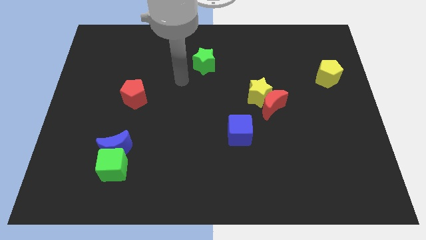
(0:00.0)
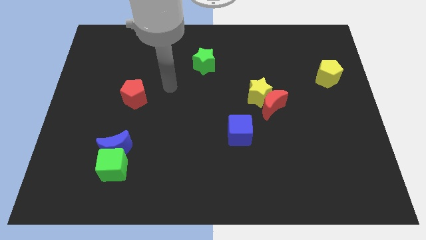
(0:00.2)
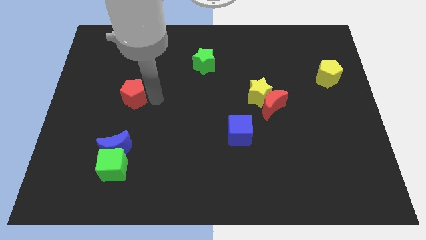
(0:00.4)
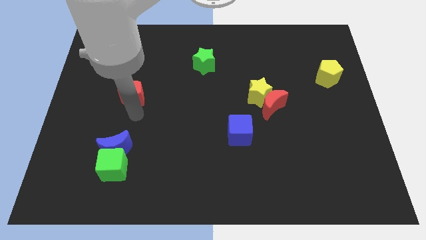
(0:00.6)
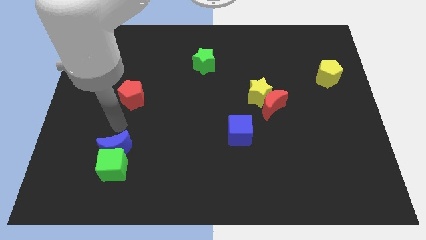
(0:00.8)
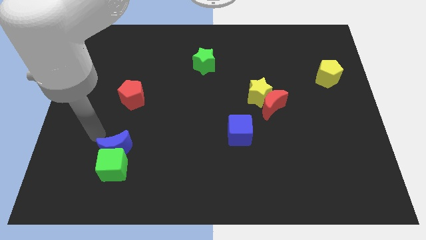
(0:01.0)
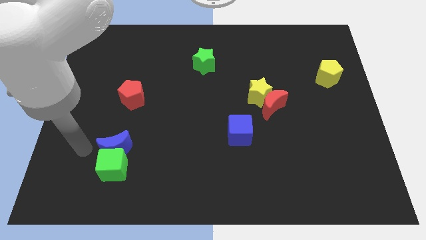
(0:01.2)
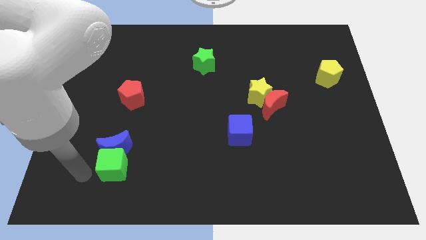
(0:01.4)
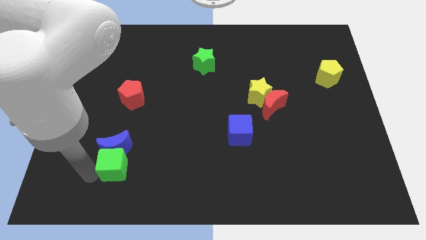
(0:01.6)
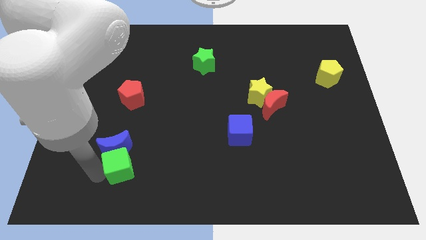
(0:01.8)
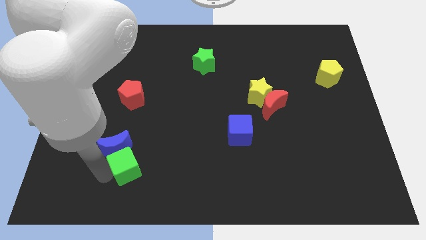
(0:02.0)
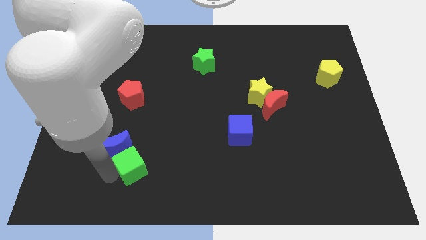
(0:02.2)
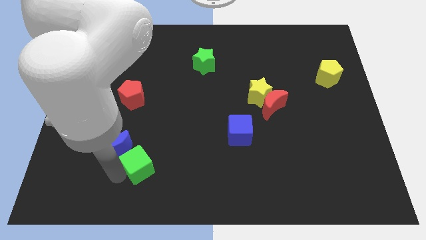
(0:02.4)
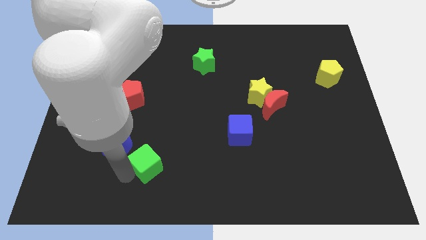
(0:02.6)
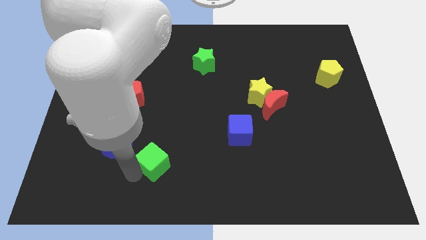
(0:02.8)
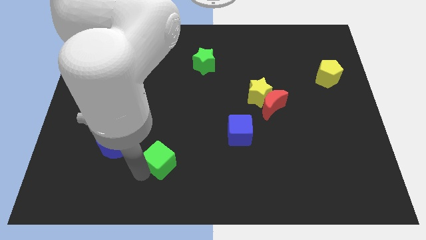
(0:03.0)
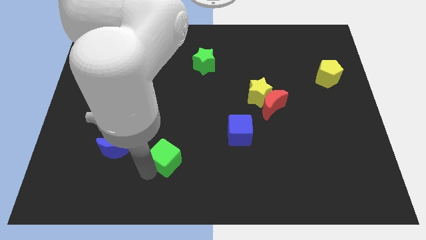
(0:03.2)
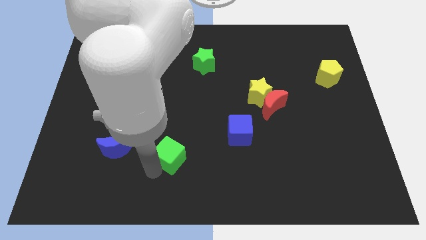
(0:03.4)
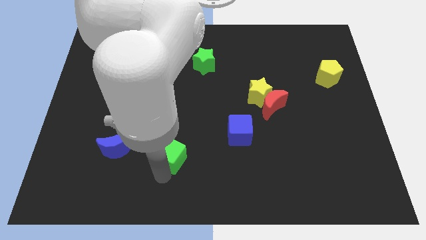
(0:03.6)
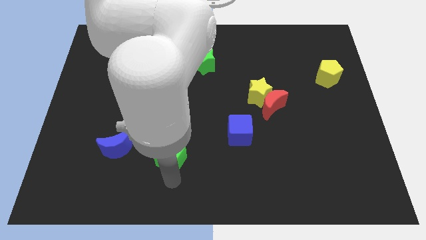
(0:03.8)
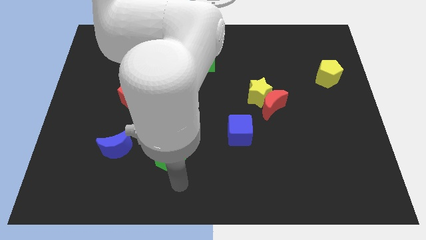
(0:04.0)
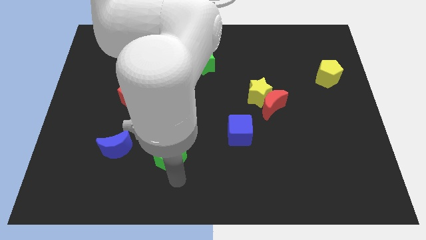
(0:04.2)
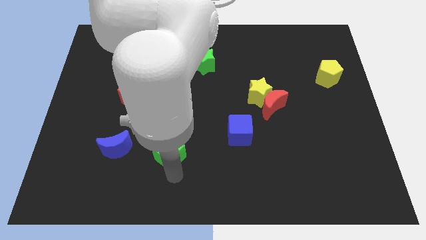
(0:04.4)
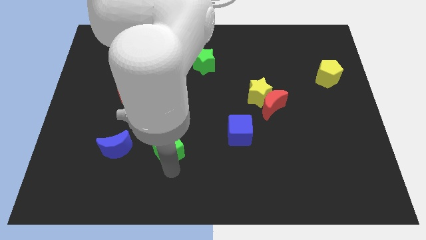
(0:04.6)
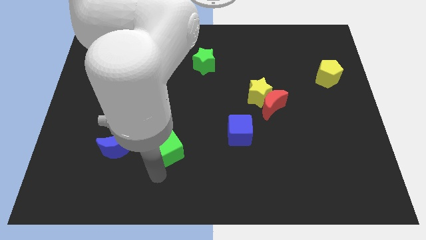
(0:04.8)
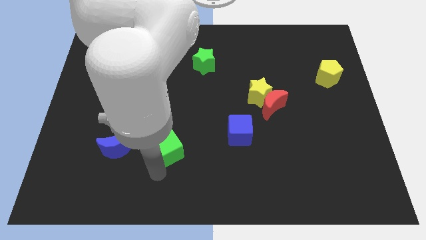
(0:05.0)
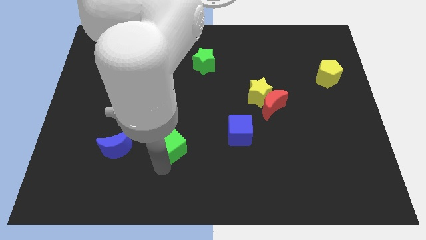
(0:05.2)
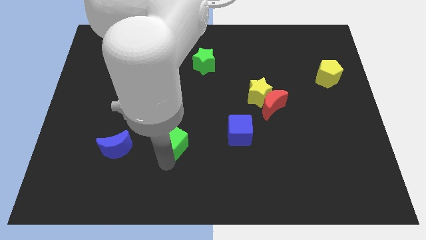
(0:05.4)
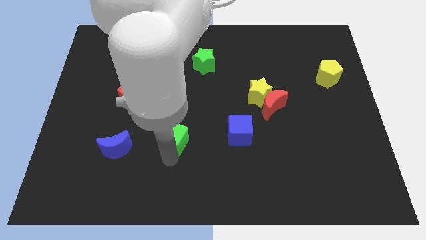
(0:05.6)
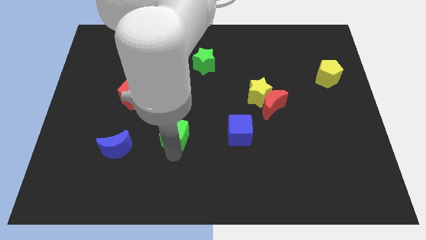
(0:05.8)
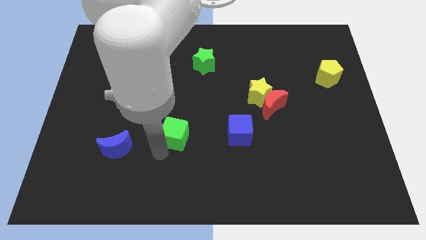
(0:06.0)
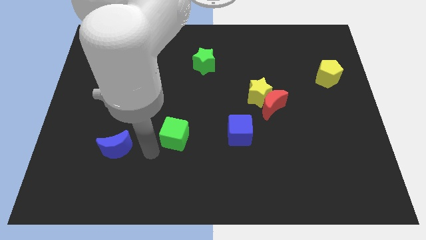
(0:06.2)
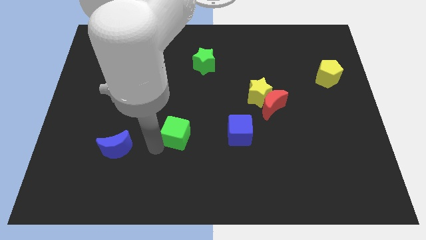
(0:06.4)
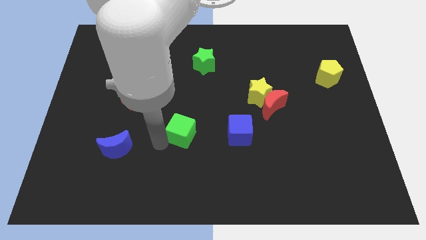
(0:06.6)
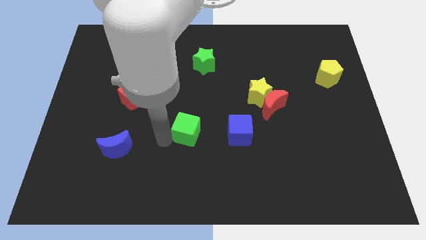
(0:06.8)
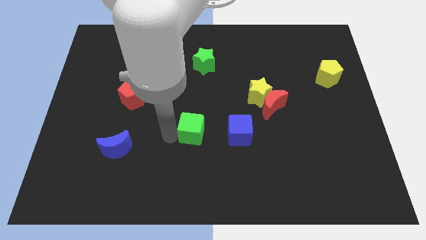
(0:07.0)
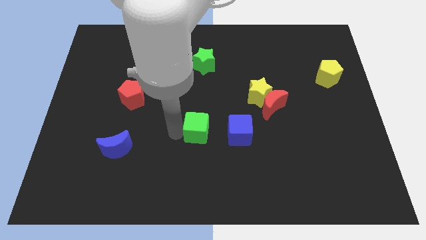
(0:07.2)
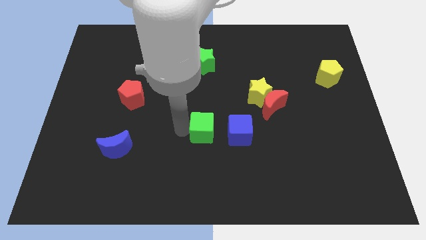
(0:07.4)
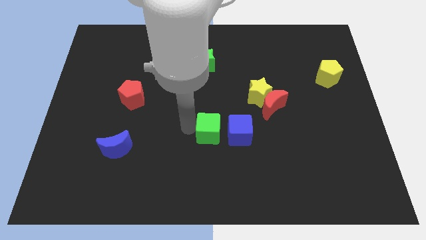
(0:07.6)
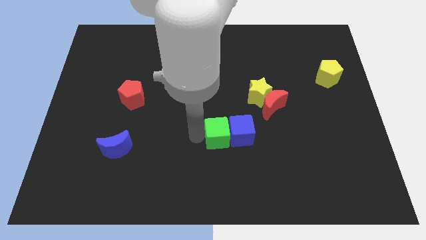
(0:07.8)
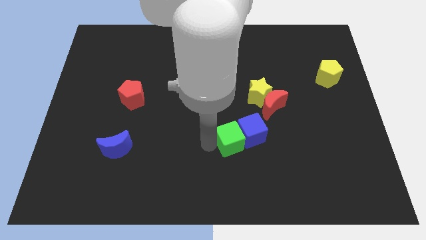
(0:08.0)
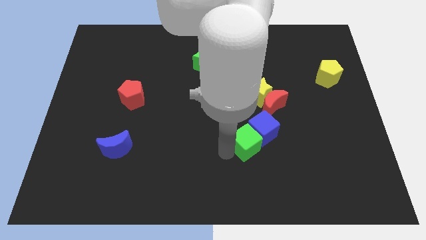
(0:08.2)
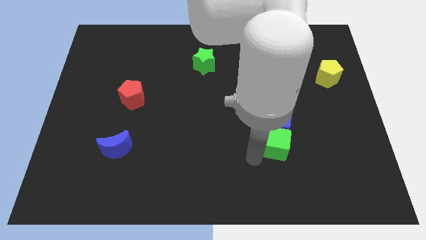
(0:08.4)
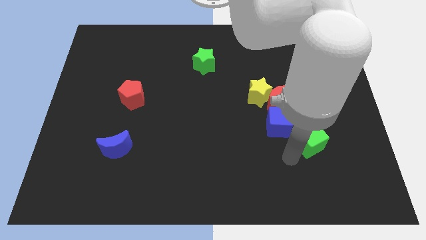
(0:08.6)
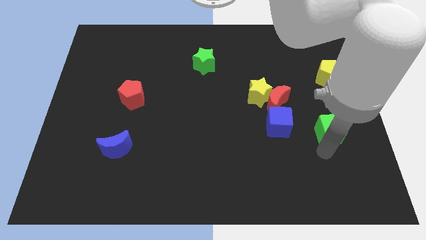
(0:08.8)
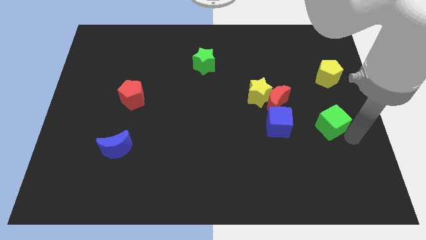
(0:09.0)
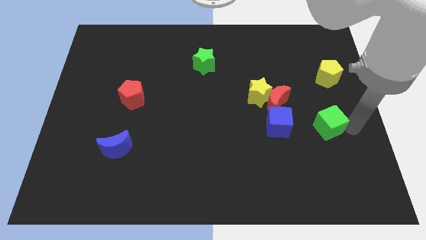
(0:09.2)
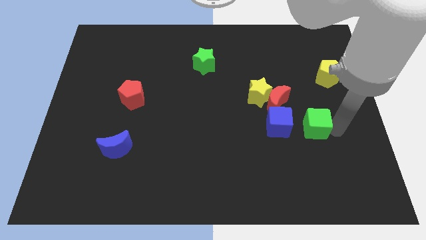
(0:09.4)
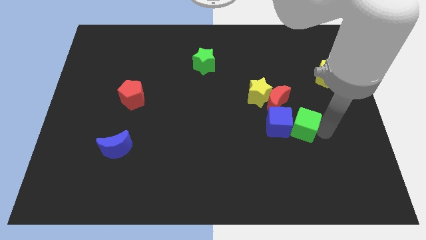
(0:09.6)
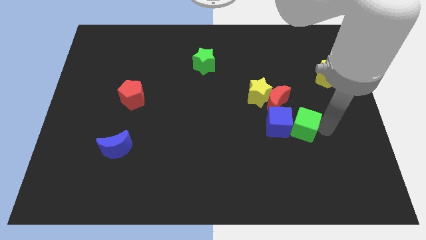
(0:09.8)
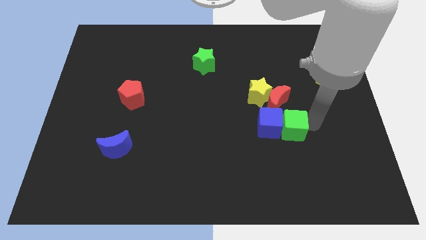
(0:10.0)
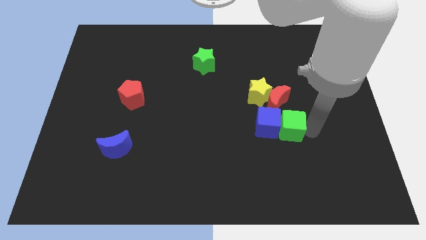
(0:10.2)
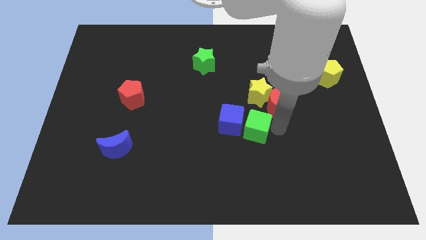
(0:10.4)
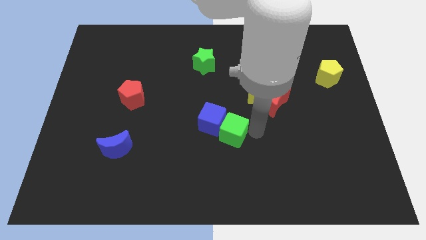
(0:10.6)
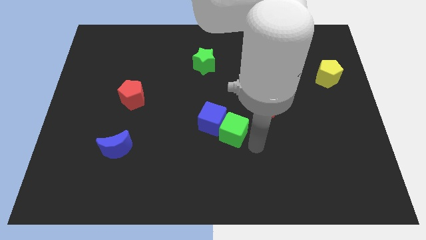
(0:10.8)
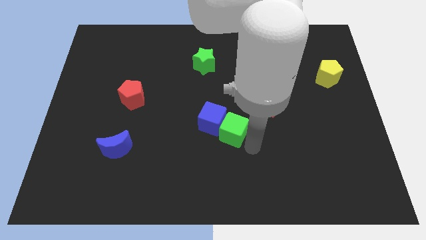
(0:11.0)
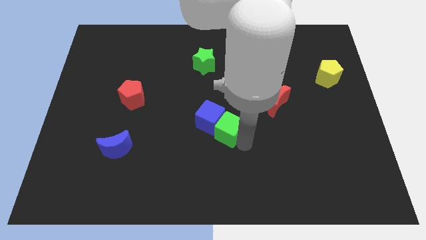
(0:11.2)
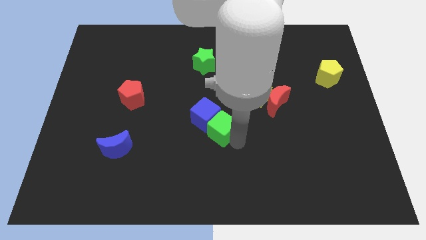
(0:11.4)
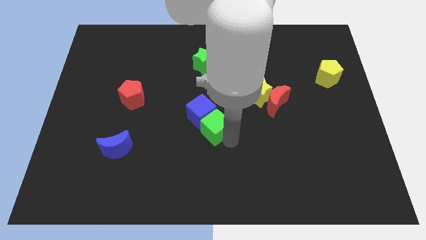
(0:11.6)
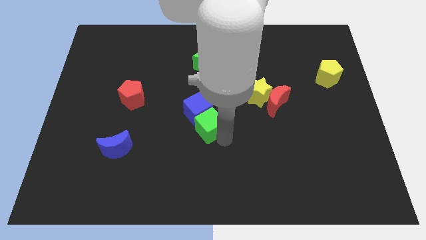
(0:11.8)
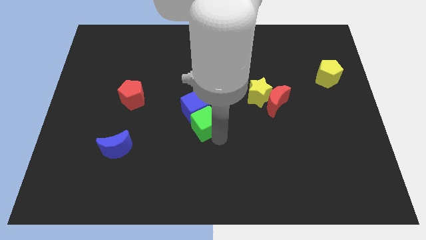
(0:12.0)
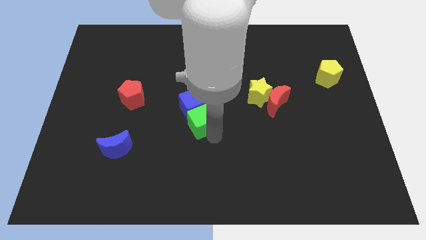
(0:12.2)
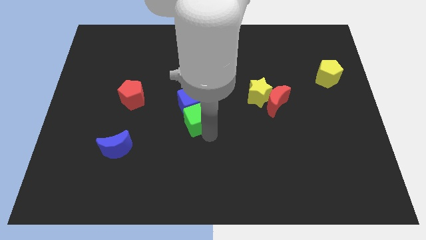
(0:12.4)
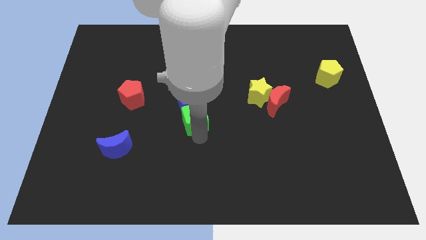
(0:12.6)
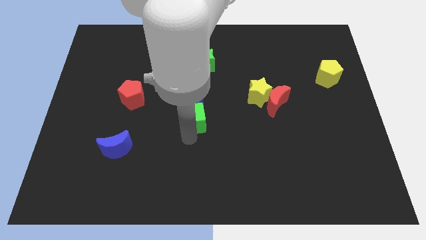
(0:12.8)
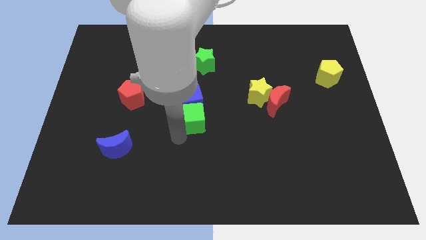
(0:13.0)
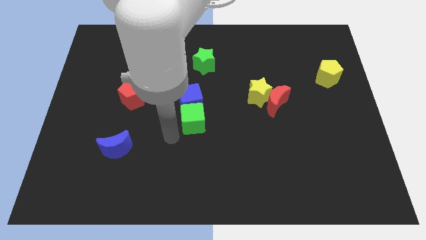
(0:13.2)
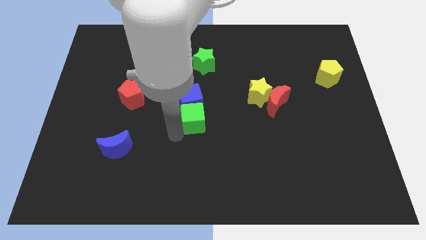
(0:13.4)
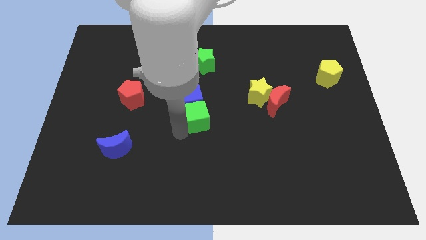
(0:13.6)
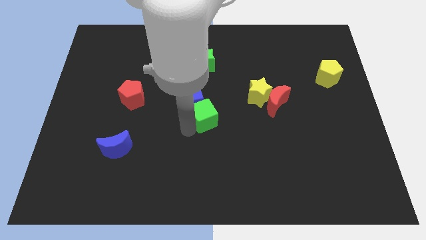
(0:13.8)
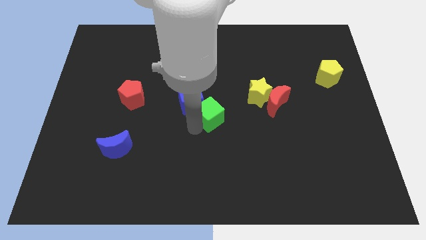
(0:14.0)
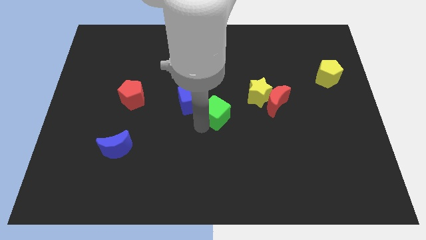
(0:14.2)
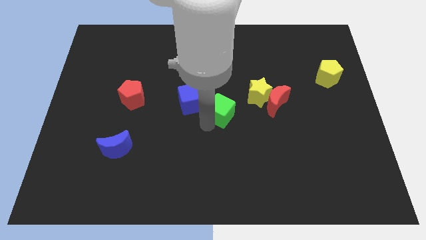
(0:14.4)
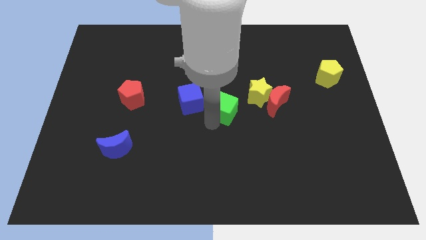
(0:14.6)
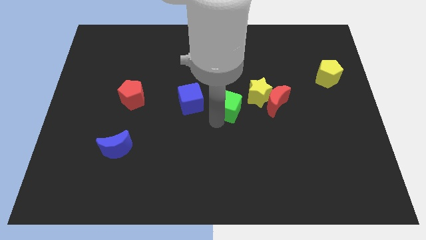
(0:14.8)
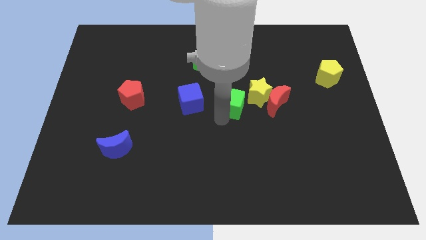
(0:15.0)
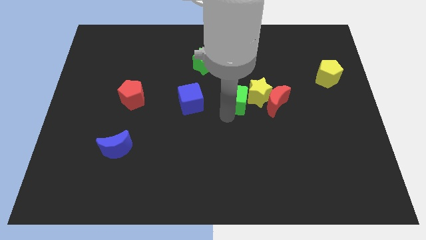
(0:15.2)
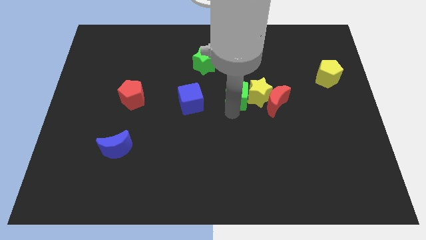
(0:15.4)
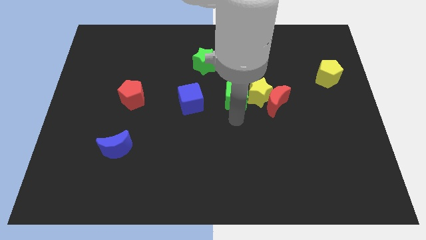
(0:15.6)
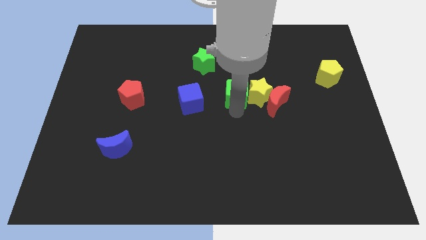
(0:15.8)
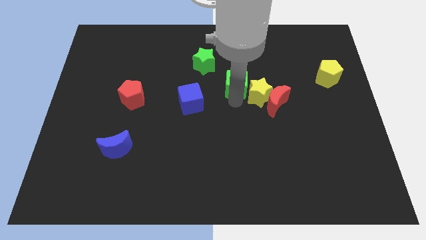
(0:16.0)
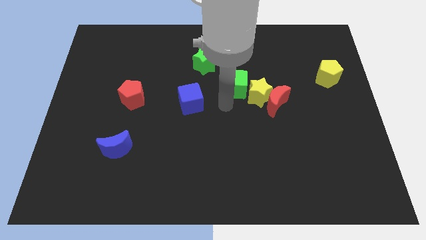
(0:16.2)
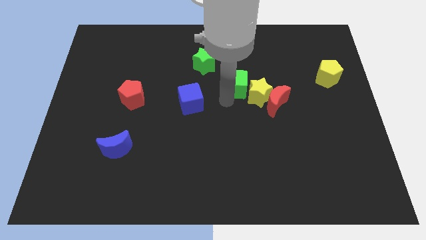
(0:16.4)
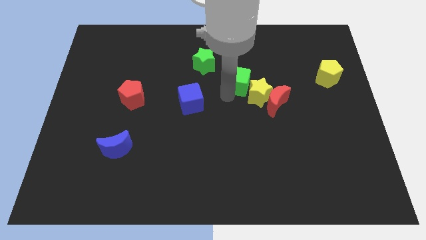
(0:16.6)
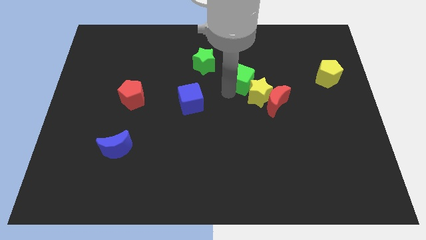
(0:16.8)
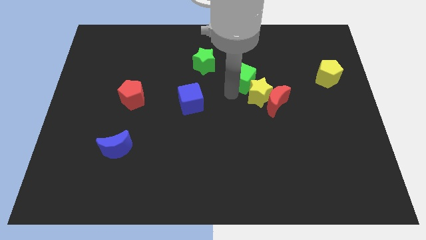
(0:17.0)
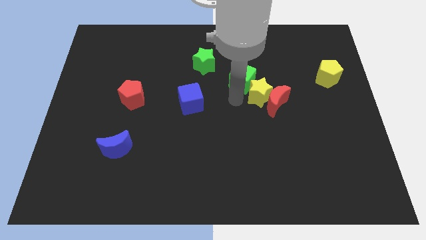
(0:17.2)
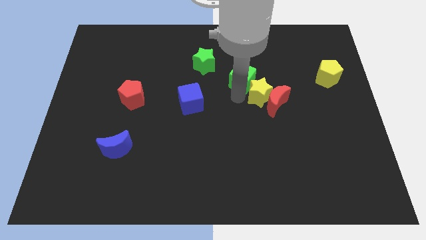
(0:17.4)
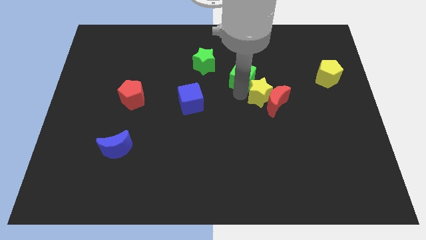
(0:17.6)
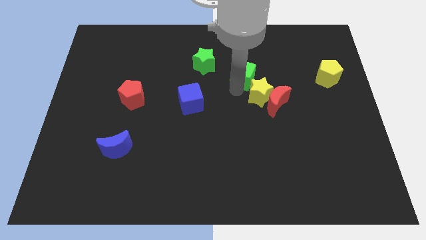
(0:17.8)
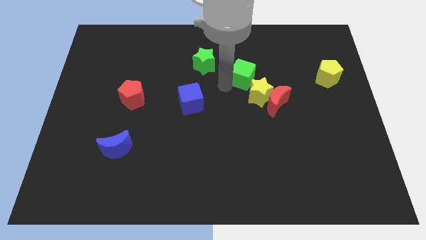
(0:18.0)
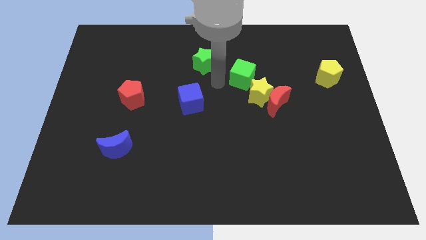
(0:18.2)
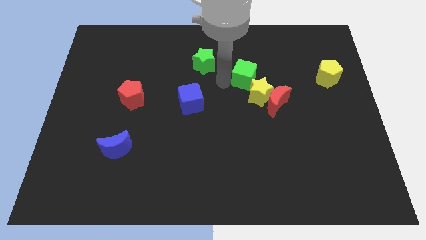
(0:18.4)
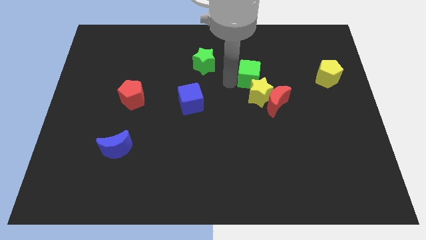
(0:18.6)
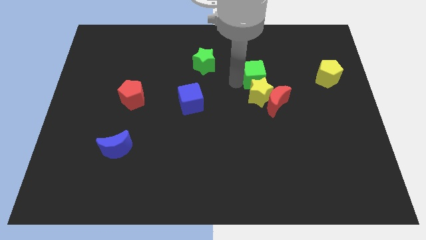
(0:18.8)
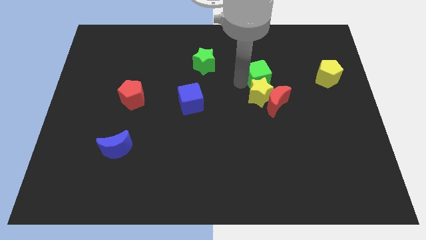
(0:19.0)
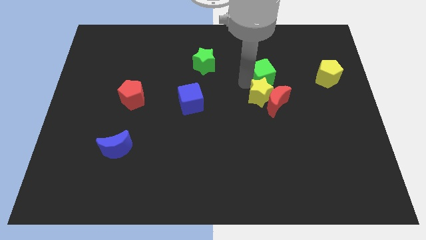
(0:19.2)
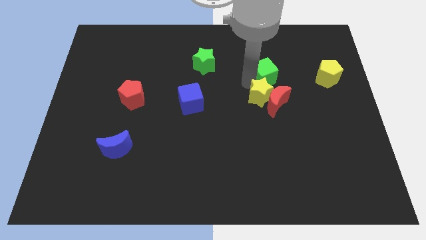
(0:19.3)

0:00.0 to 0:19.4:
move the green cube left of the yellow pentagon
